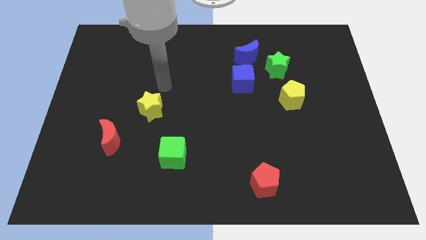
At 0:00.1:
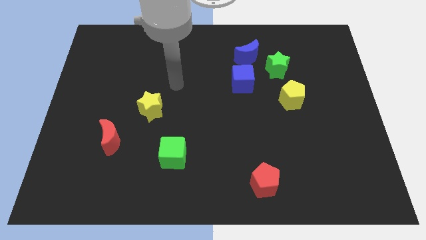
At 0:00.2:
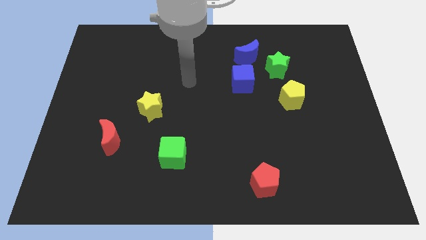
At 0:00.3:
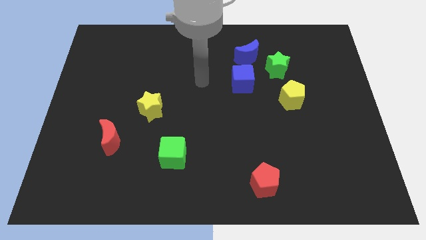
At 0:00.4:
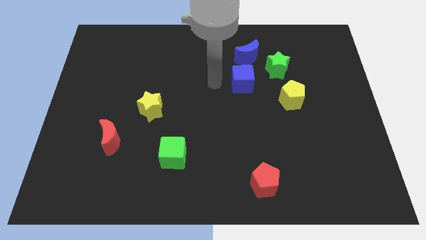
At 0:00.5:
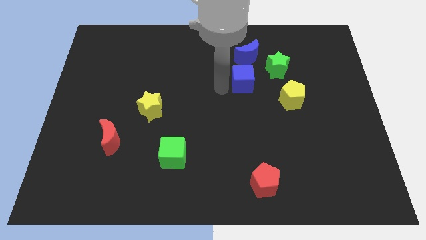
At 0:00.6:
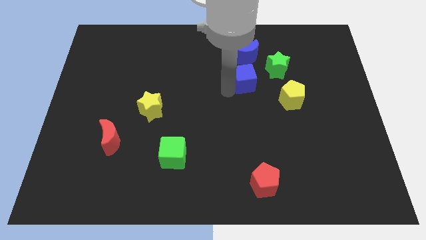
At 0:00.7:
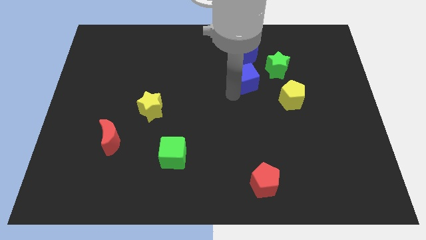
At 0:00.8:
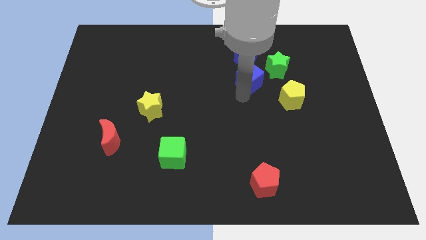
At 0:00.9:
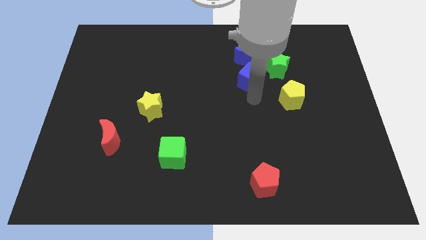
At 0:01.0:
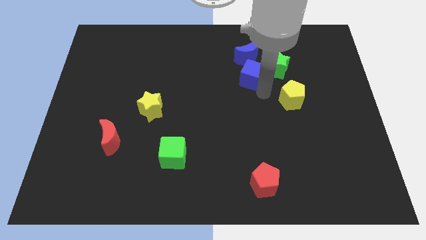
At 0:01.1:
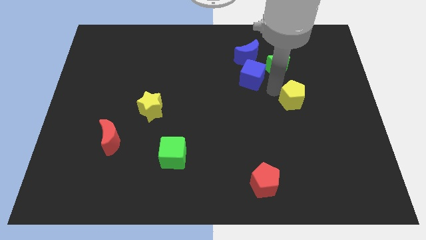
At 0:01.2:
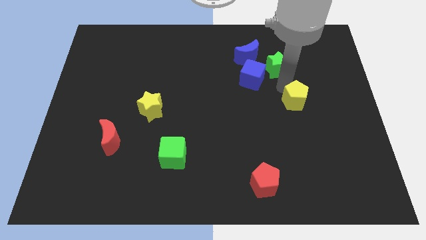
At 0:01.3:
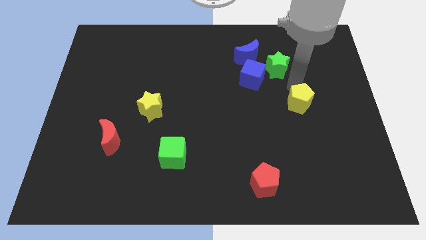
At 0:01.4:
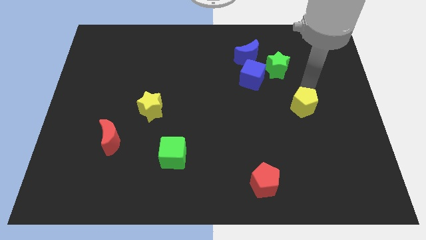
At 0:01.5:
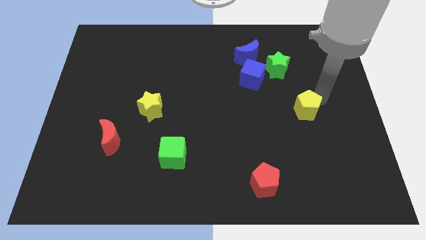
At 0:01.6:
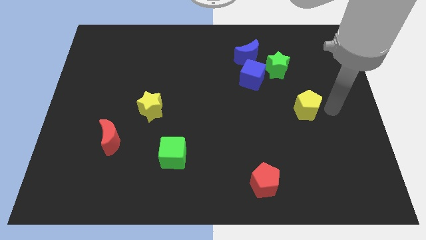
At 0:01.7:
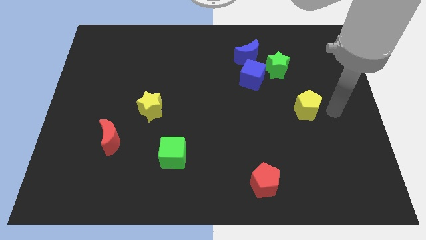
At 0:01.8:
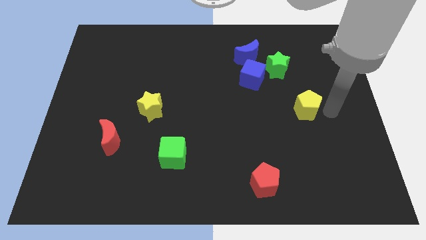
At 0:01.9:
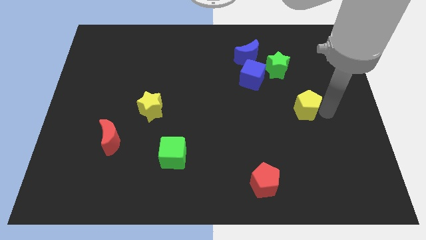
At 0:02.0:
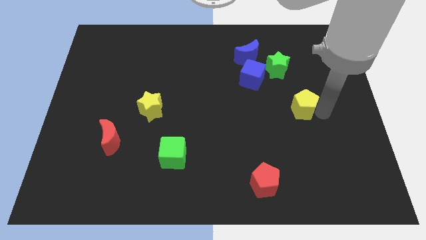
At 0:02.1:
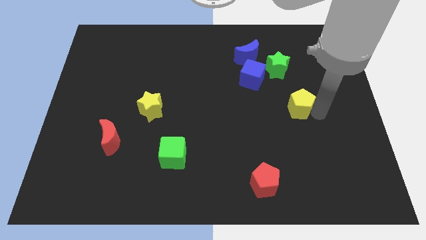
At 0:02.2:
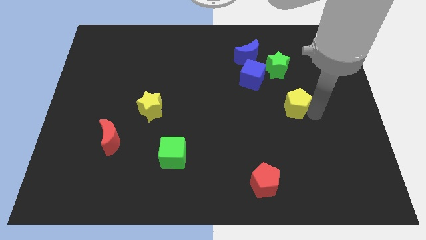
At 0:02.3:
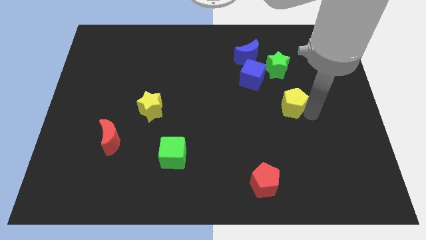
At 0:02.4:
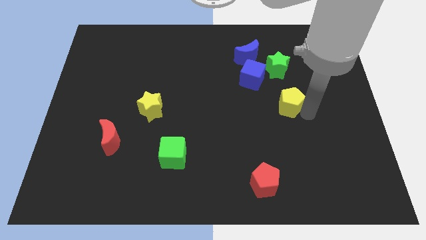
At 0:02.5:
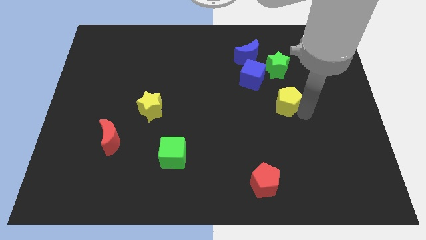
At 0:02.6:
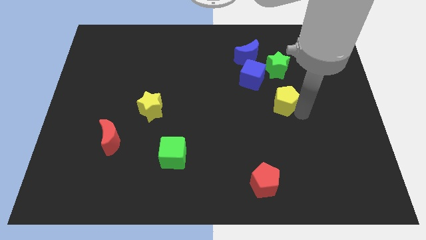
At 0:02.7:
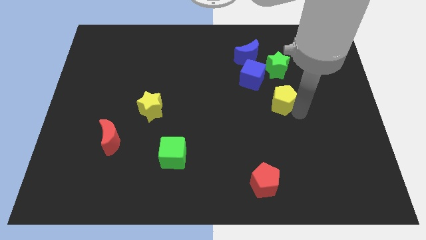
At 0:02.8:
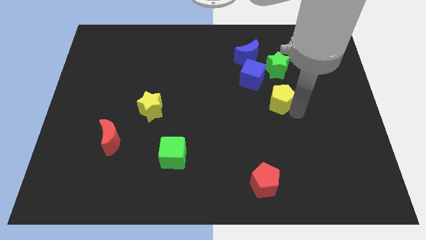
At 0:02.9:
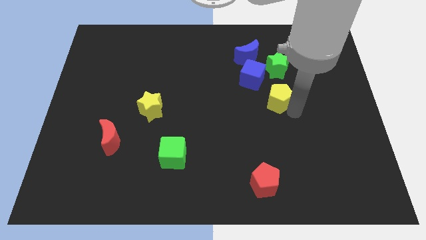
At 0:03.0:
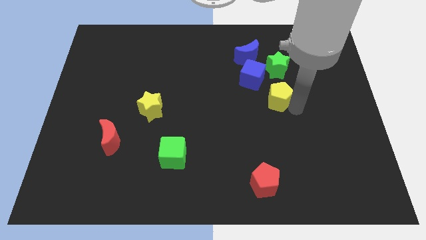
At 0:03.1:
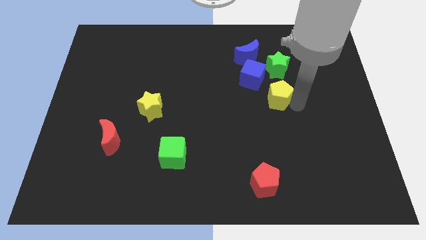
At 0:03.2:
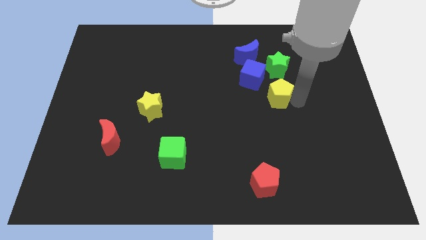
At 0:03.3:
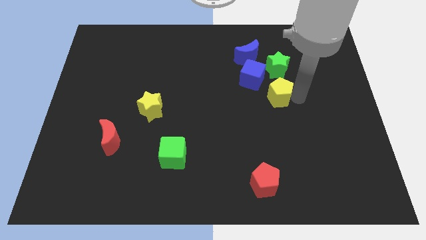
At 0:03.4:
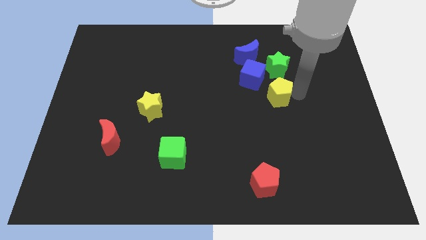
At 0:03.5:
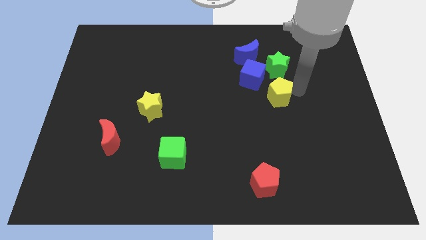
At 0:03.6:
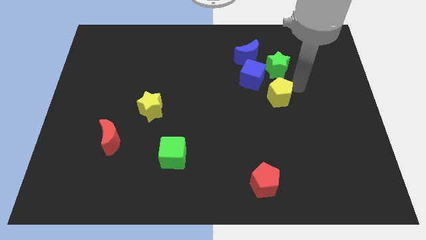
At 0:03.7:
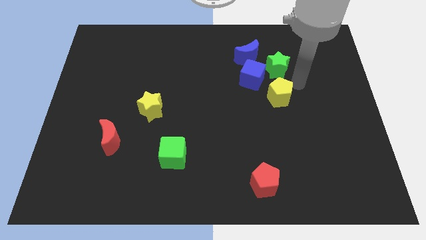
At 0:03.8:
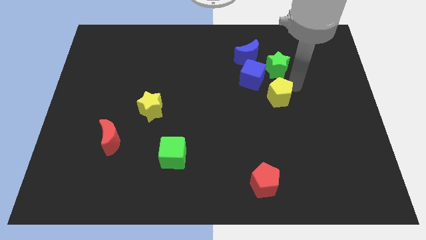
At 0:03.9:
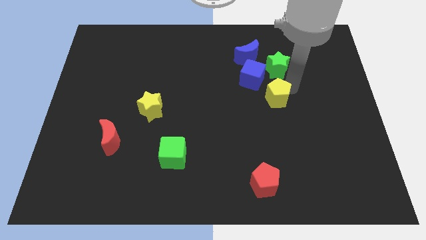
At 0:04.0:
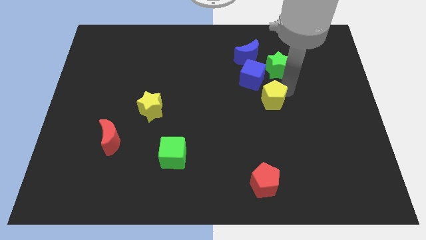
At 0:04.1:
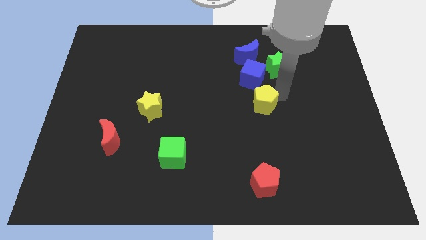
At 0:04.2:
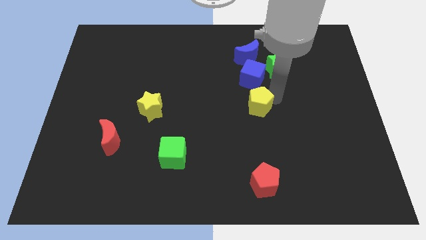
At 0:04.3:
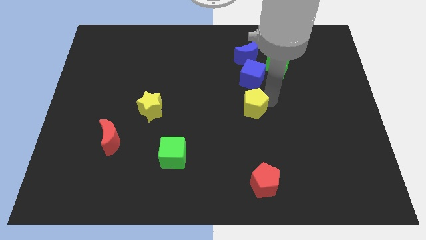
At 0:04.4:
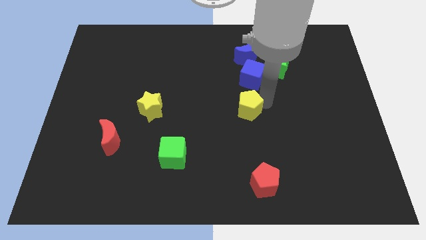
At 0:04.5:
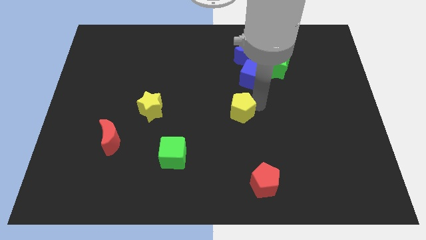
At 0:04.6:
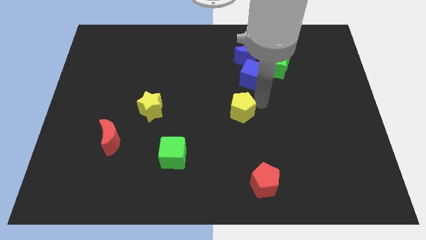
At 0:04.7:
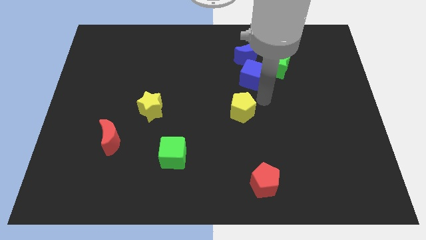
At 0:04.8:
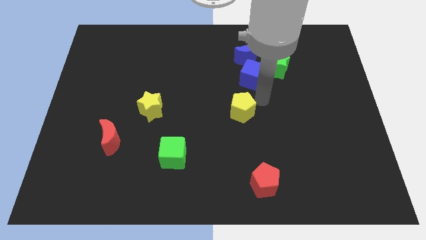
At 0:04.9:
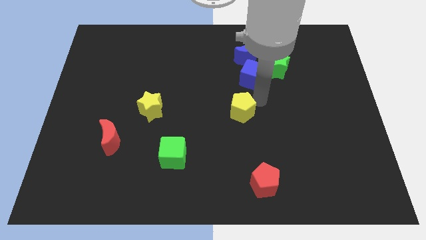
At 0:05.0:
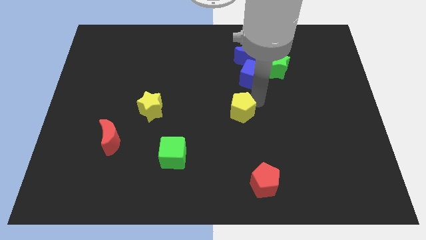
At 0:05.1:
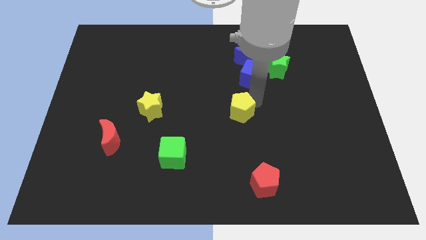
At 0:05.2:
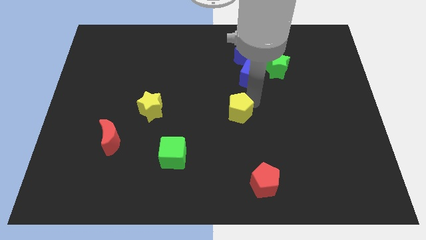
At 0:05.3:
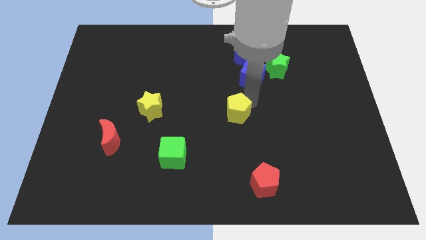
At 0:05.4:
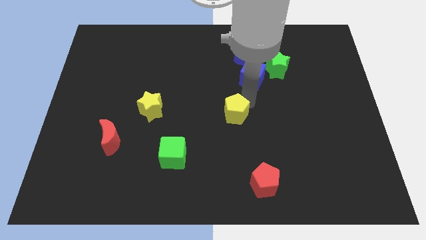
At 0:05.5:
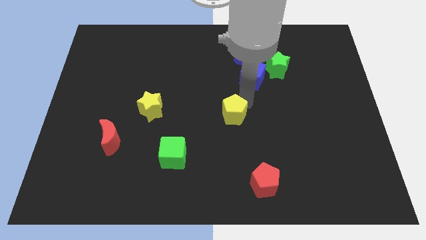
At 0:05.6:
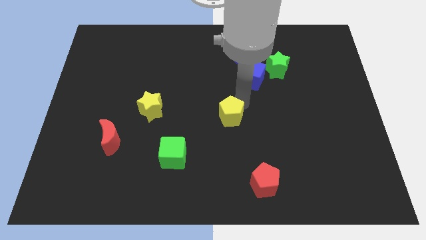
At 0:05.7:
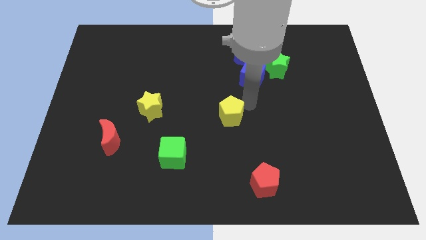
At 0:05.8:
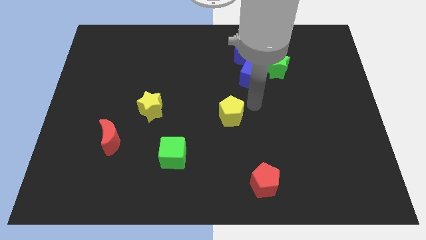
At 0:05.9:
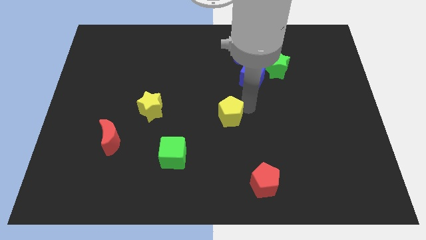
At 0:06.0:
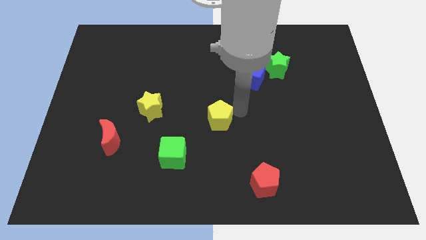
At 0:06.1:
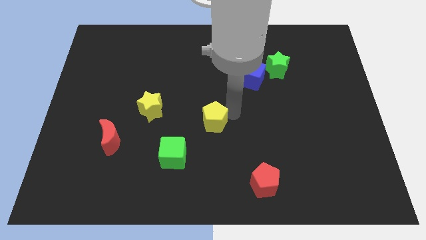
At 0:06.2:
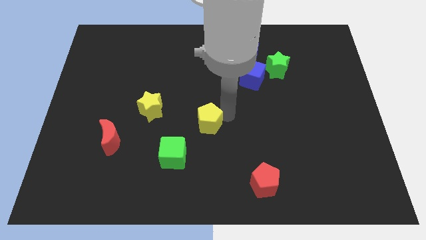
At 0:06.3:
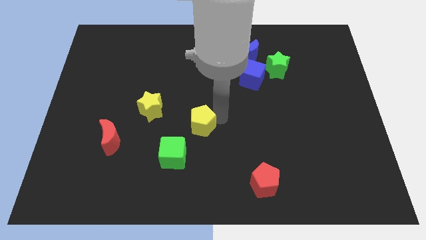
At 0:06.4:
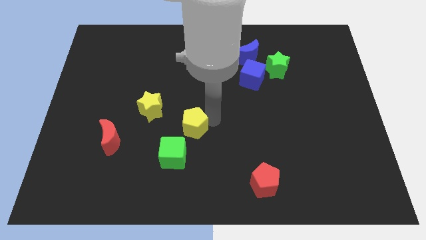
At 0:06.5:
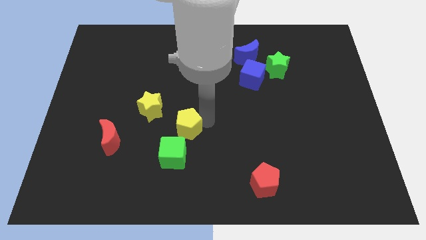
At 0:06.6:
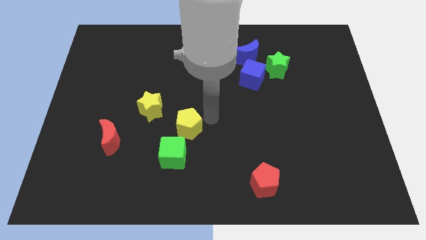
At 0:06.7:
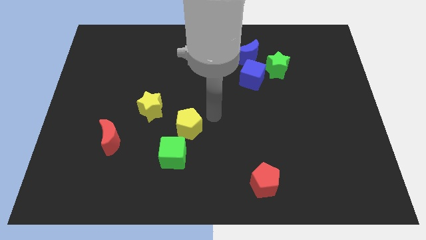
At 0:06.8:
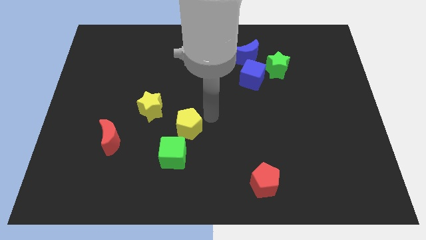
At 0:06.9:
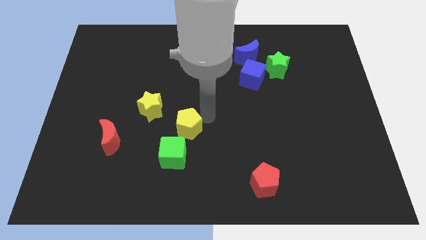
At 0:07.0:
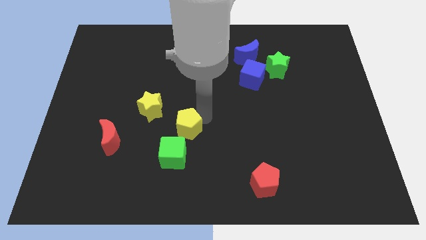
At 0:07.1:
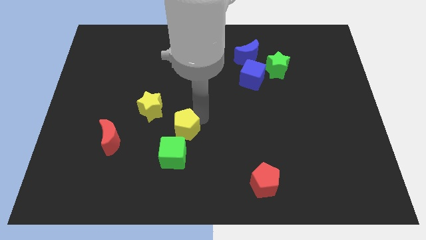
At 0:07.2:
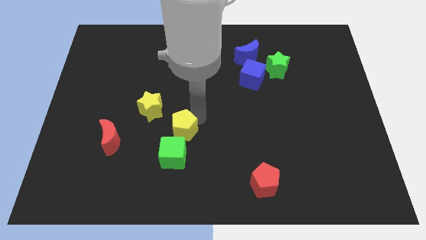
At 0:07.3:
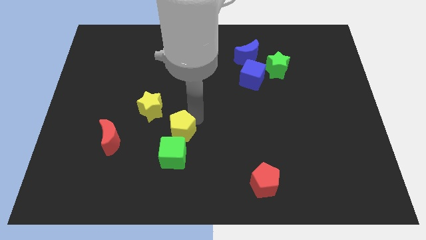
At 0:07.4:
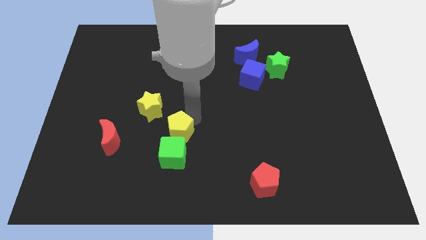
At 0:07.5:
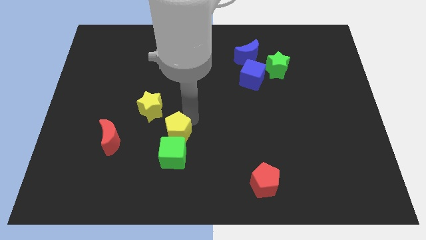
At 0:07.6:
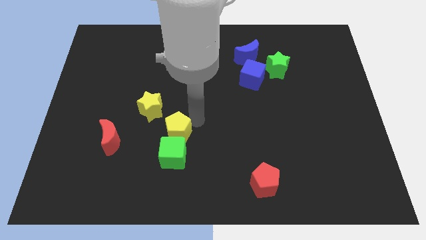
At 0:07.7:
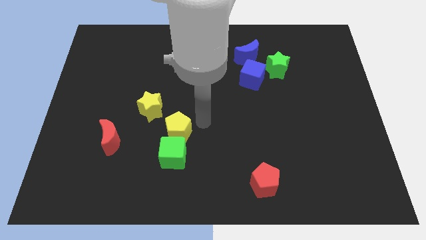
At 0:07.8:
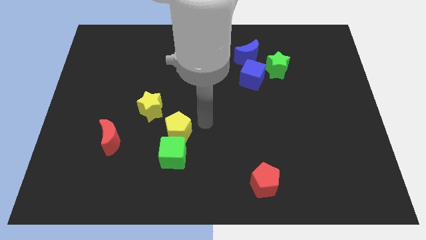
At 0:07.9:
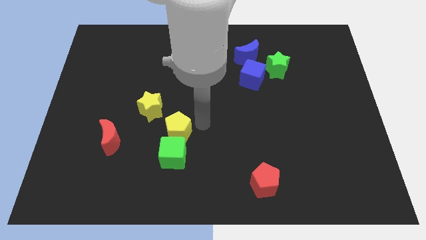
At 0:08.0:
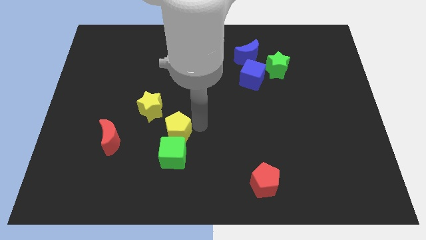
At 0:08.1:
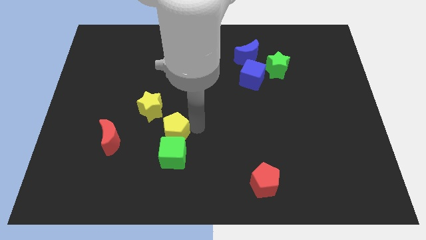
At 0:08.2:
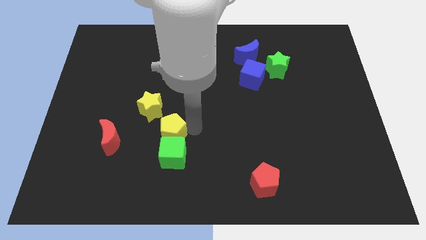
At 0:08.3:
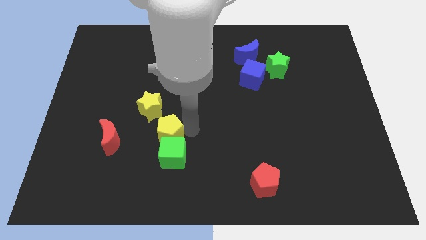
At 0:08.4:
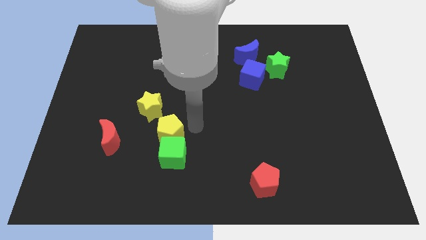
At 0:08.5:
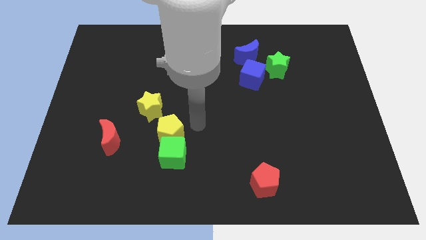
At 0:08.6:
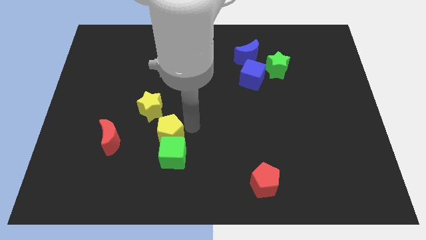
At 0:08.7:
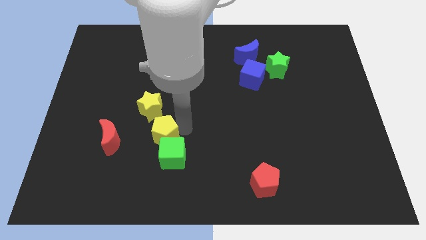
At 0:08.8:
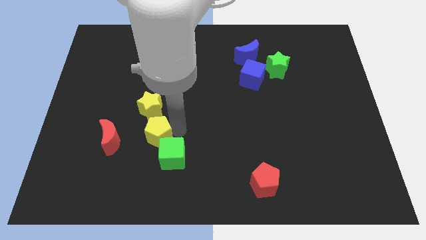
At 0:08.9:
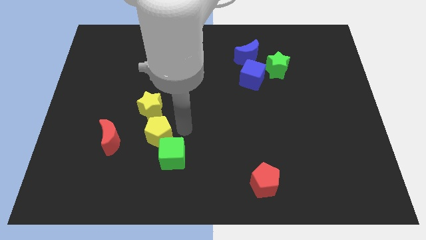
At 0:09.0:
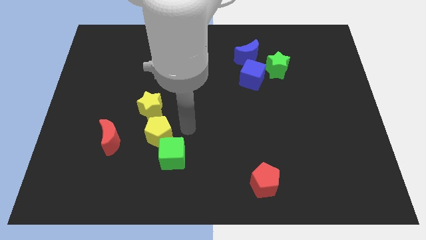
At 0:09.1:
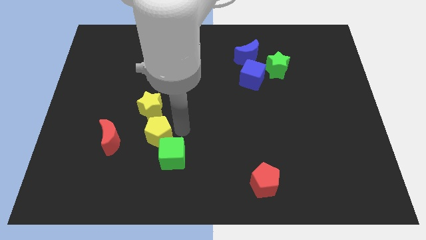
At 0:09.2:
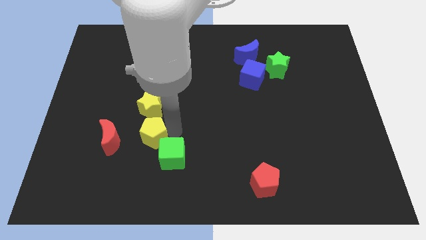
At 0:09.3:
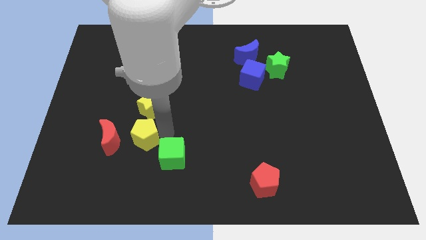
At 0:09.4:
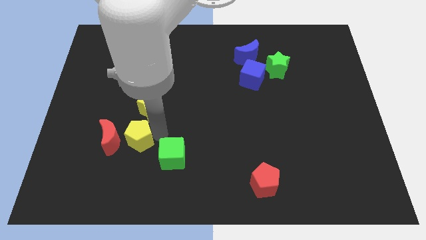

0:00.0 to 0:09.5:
push the yellow pentagon to the red moon
